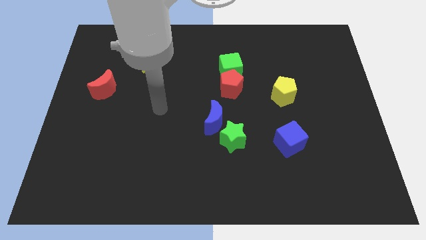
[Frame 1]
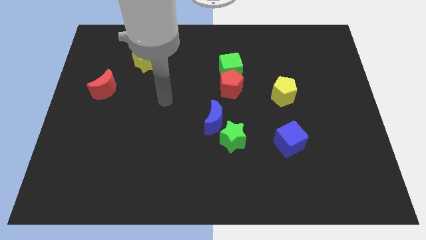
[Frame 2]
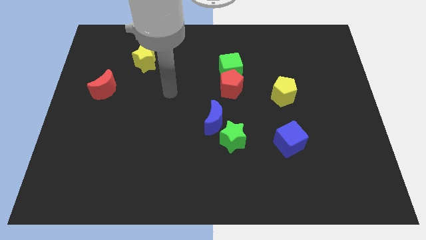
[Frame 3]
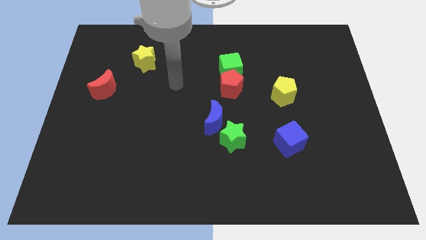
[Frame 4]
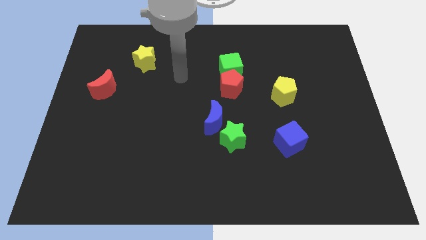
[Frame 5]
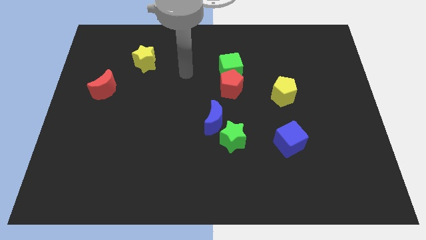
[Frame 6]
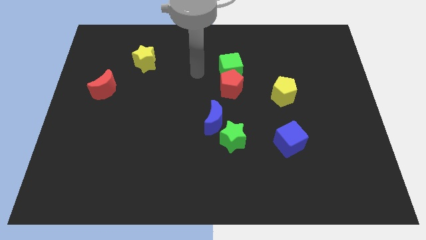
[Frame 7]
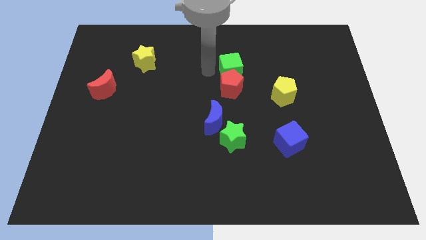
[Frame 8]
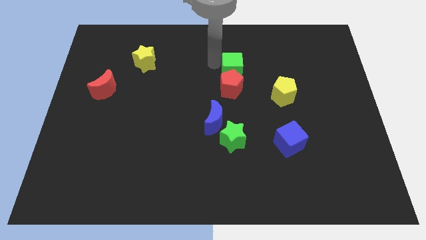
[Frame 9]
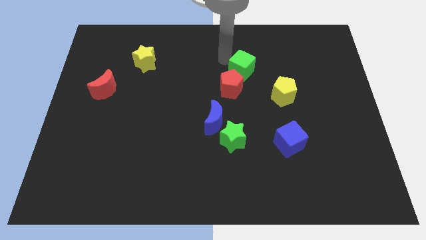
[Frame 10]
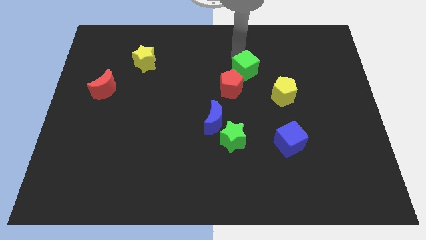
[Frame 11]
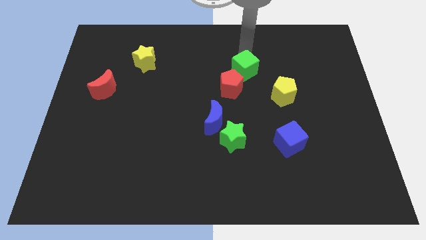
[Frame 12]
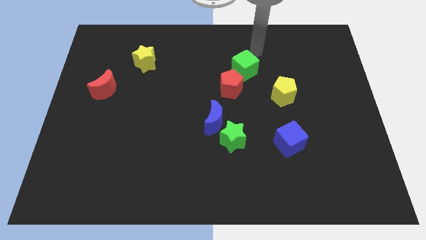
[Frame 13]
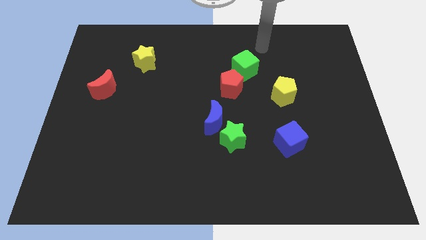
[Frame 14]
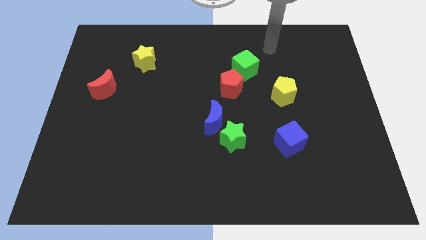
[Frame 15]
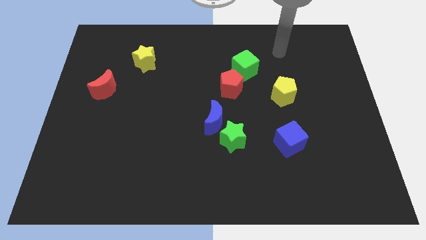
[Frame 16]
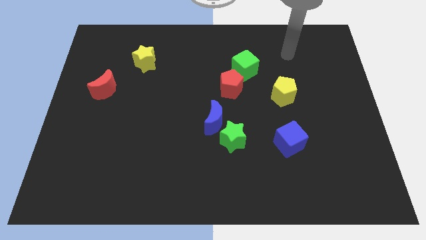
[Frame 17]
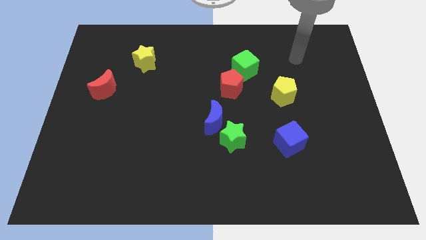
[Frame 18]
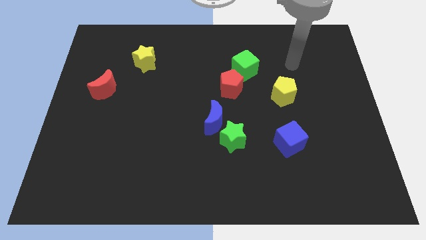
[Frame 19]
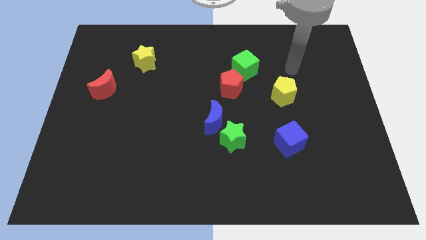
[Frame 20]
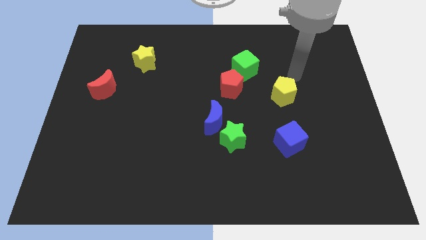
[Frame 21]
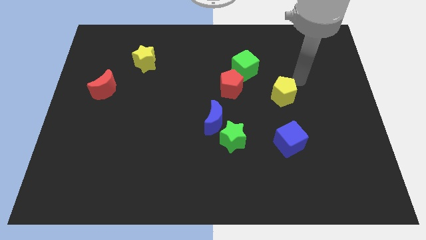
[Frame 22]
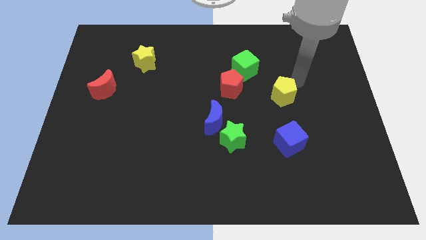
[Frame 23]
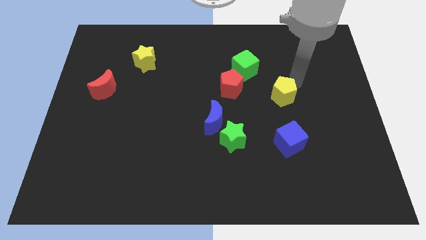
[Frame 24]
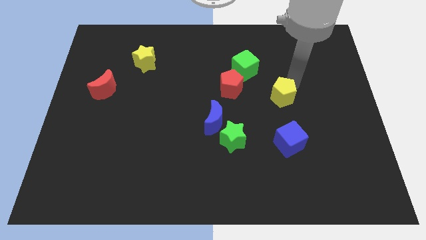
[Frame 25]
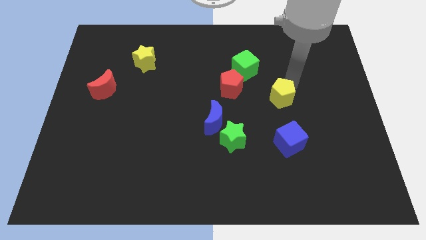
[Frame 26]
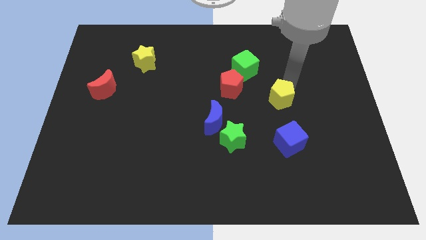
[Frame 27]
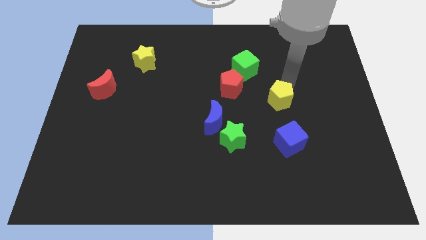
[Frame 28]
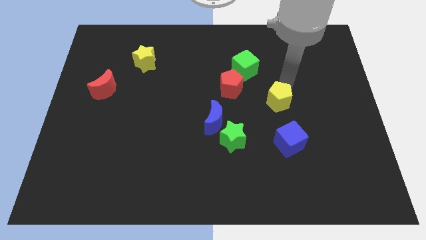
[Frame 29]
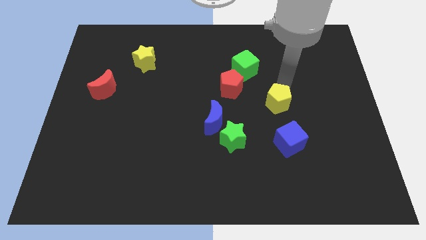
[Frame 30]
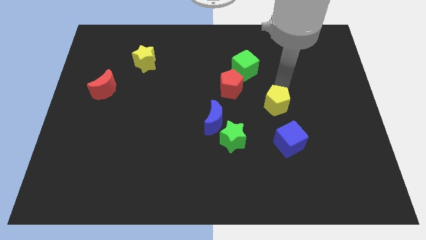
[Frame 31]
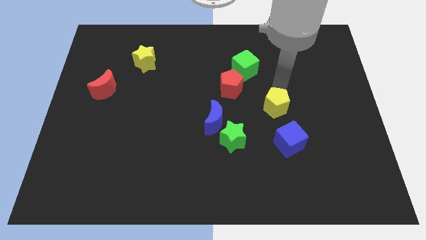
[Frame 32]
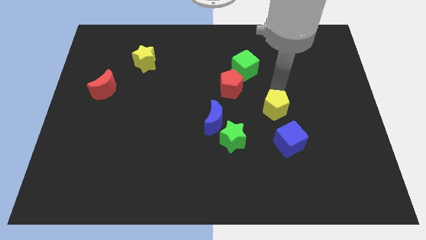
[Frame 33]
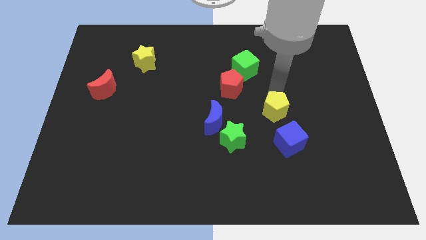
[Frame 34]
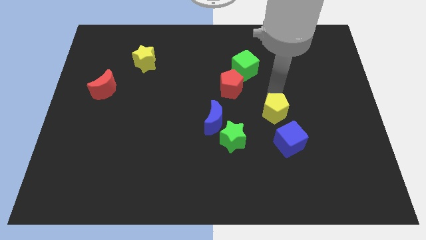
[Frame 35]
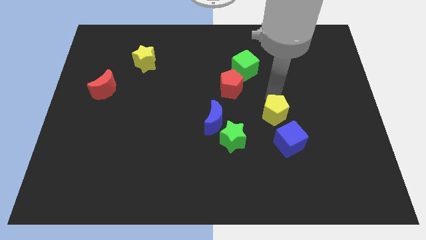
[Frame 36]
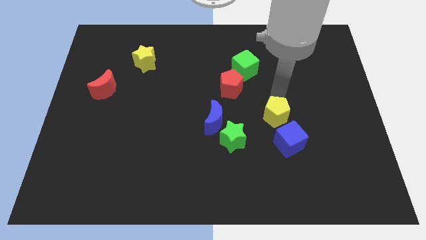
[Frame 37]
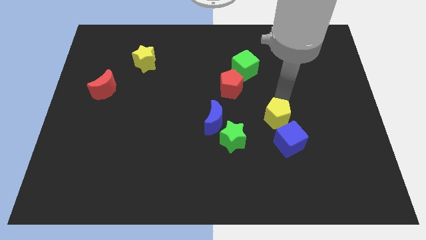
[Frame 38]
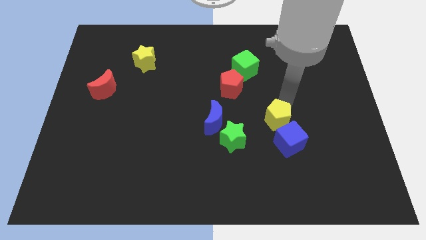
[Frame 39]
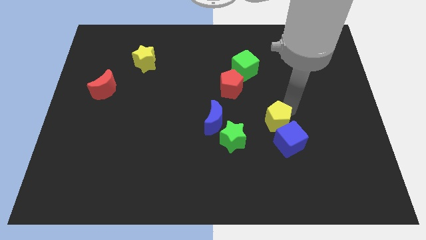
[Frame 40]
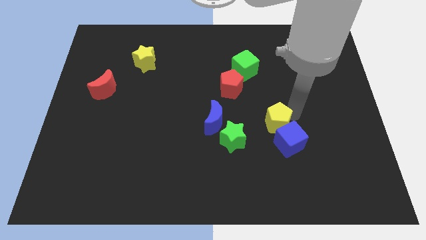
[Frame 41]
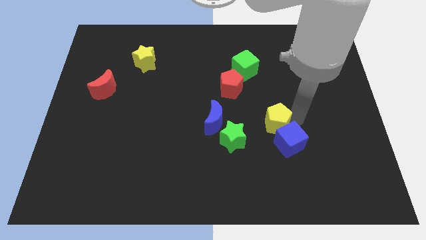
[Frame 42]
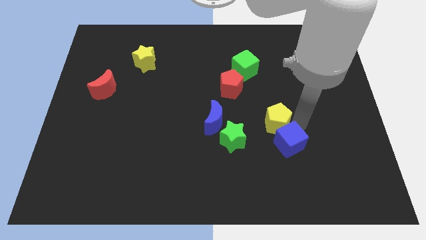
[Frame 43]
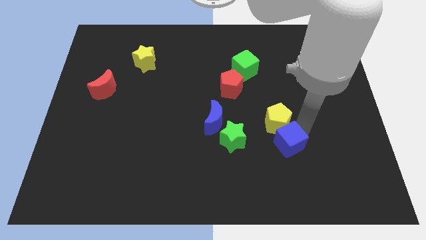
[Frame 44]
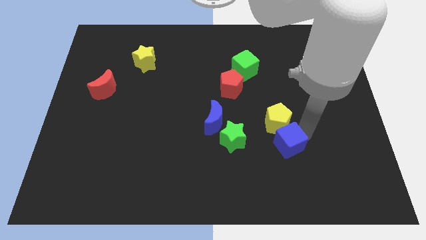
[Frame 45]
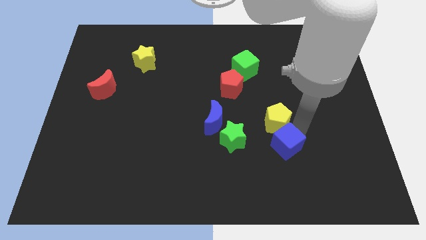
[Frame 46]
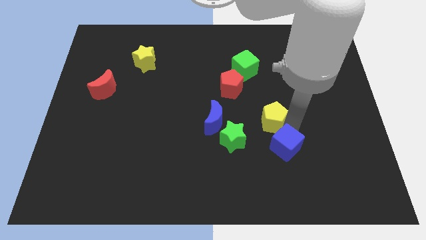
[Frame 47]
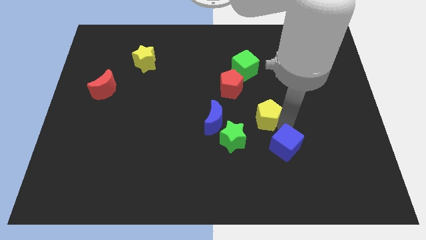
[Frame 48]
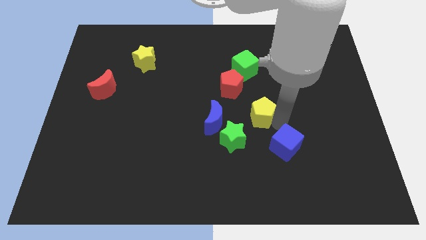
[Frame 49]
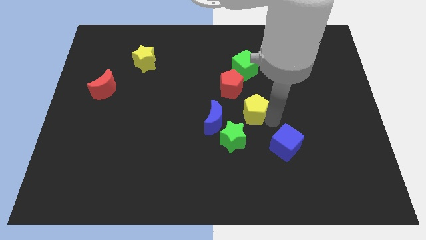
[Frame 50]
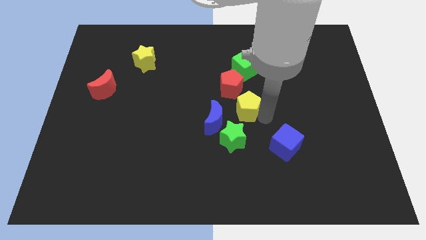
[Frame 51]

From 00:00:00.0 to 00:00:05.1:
push the yellow pentagon to the left a little

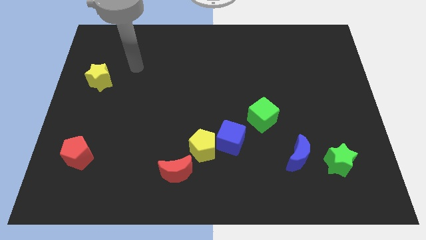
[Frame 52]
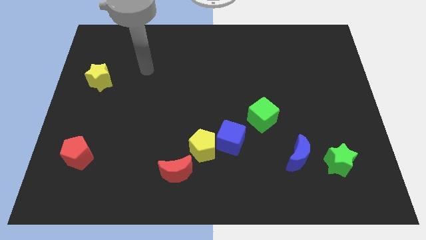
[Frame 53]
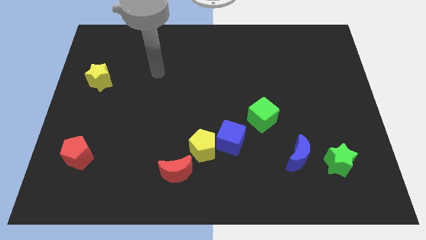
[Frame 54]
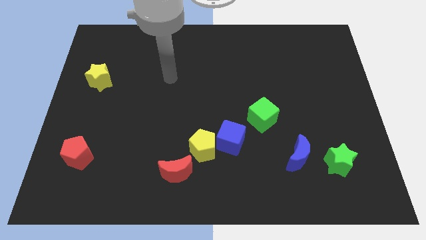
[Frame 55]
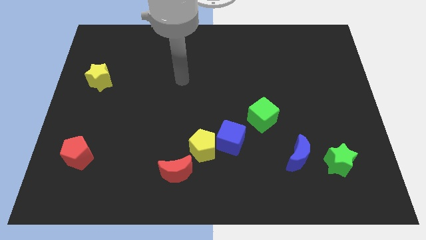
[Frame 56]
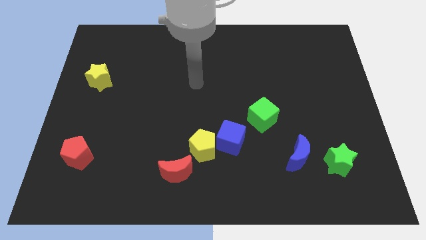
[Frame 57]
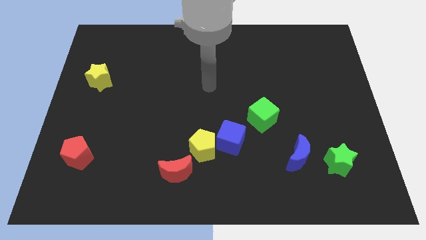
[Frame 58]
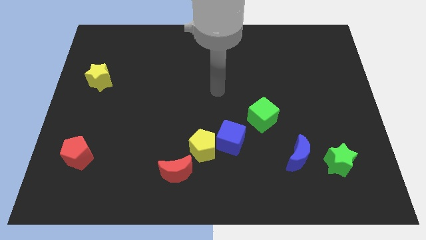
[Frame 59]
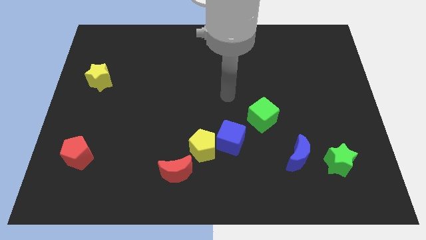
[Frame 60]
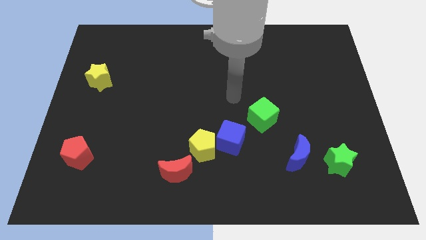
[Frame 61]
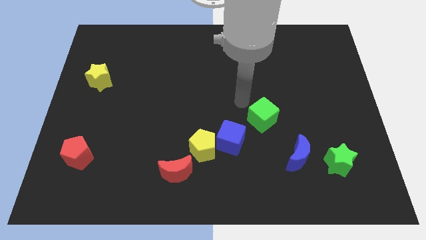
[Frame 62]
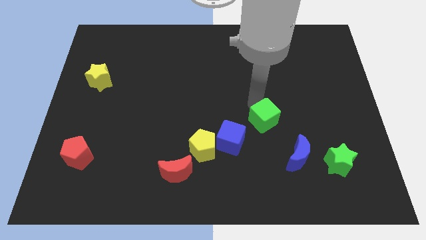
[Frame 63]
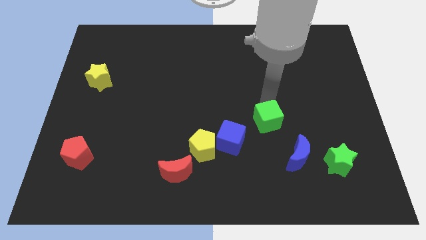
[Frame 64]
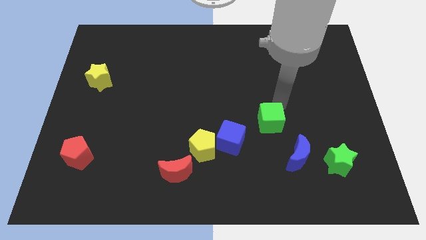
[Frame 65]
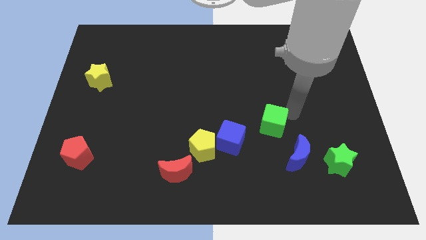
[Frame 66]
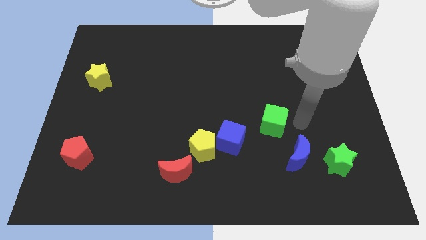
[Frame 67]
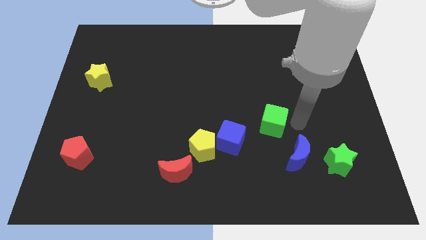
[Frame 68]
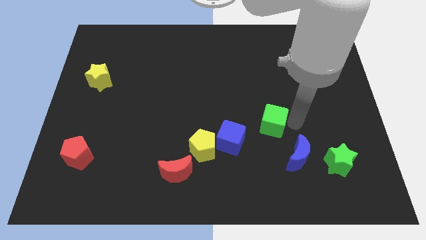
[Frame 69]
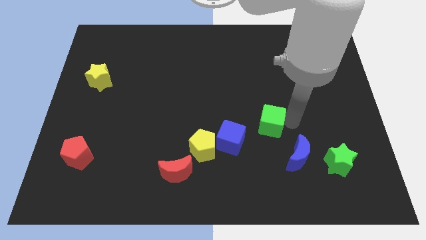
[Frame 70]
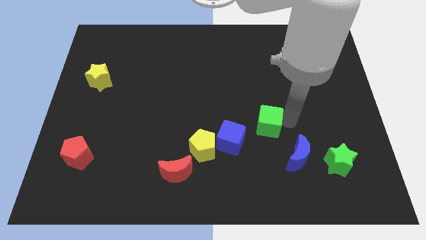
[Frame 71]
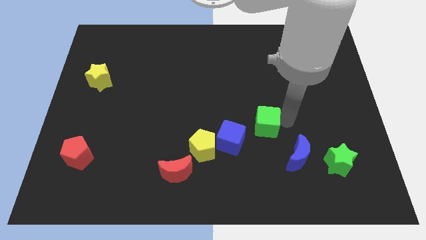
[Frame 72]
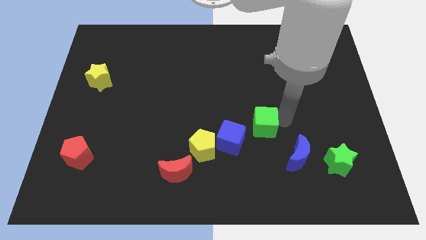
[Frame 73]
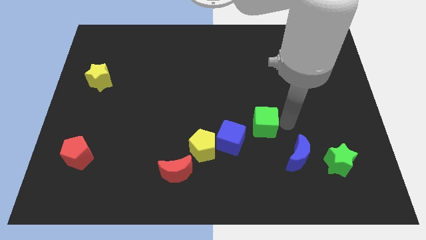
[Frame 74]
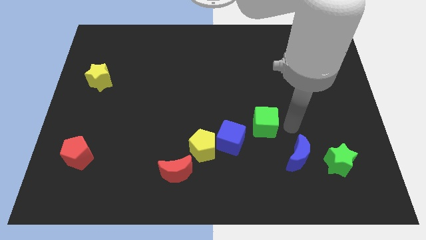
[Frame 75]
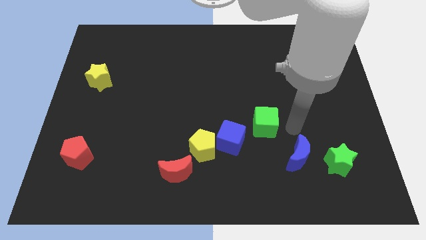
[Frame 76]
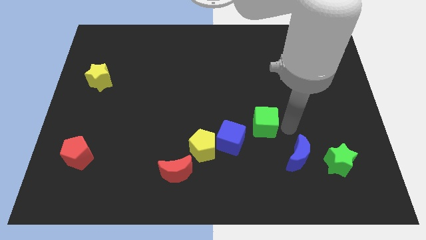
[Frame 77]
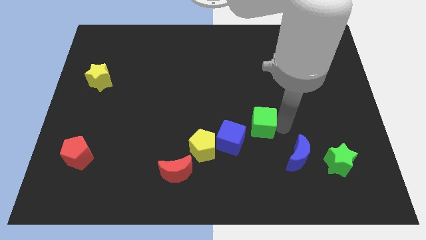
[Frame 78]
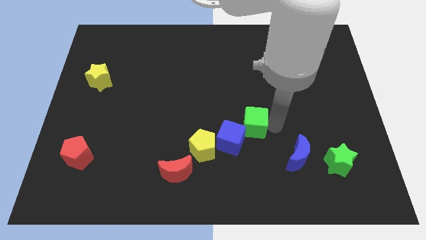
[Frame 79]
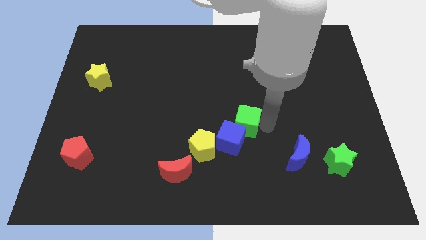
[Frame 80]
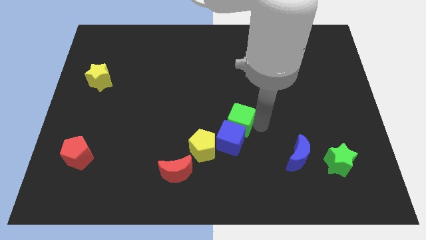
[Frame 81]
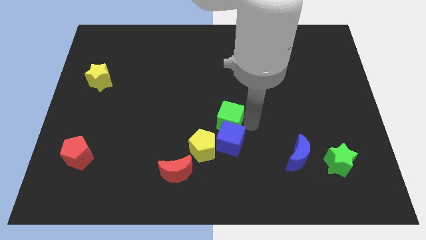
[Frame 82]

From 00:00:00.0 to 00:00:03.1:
slide the green cube left a bit
